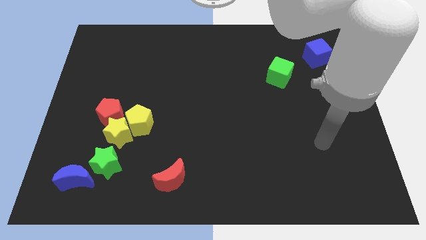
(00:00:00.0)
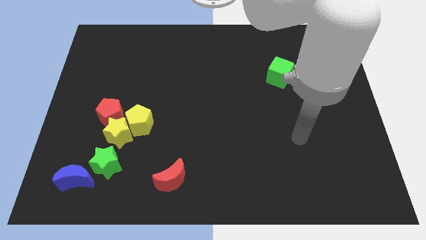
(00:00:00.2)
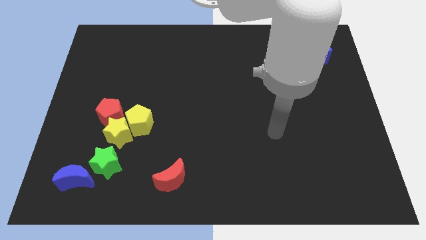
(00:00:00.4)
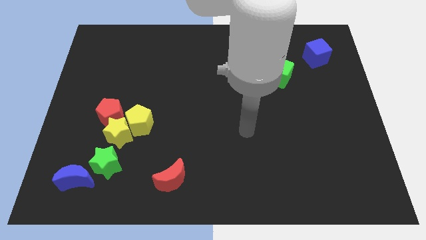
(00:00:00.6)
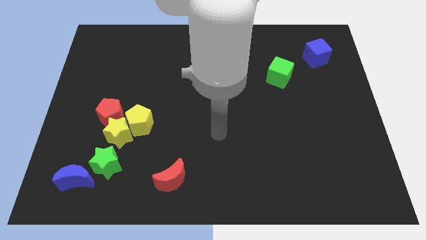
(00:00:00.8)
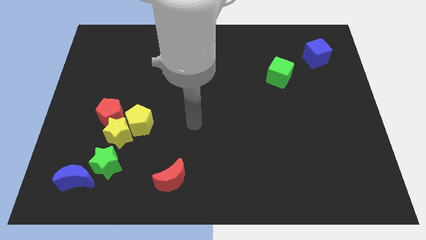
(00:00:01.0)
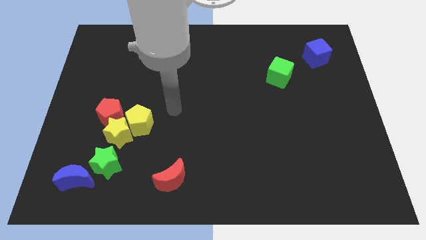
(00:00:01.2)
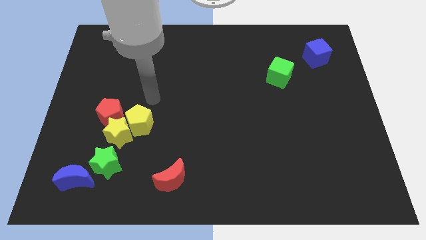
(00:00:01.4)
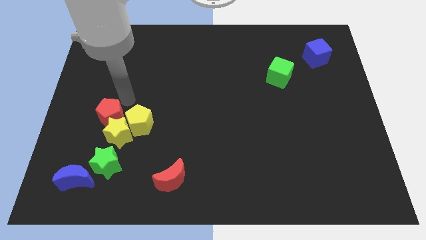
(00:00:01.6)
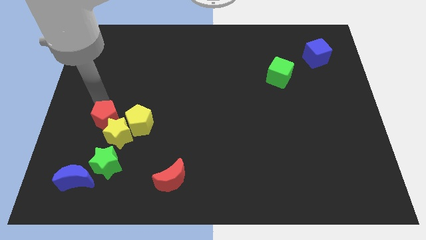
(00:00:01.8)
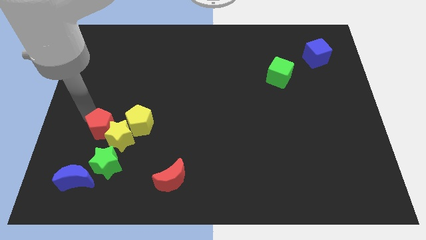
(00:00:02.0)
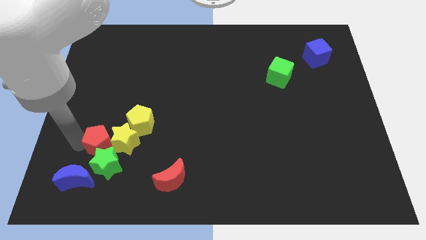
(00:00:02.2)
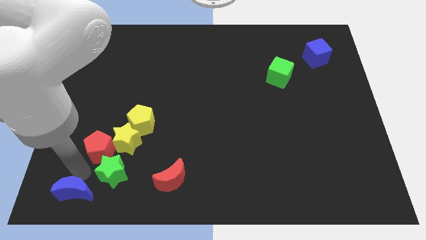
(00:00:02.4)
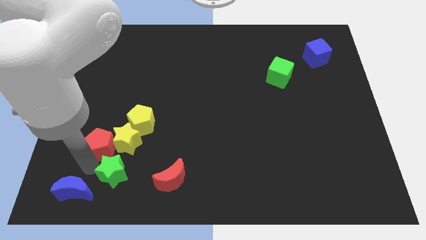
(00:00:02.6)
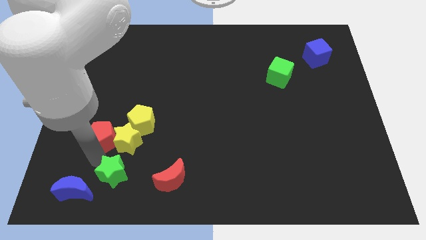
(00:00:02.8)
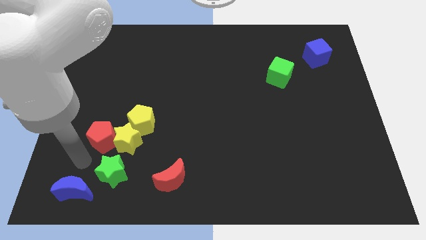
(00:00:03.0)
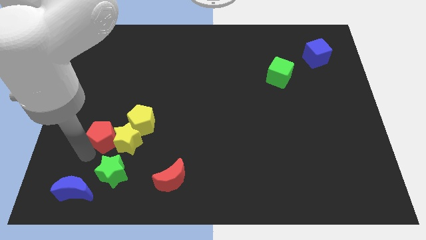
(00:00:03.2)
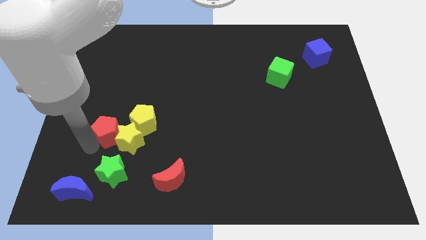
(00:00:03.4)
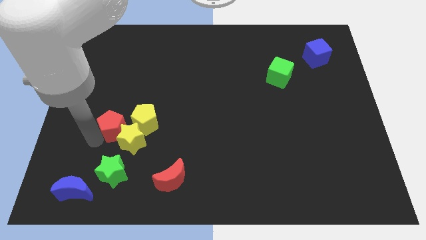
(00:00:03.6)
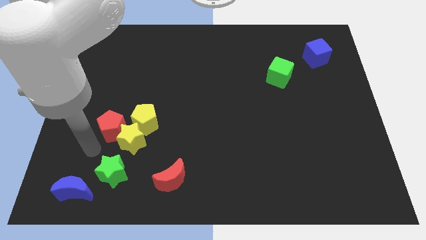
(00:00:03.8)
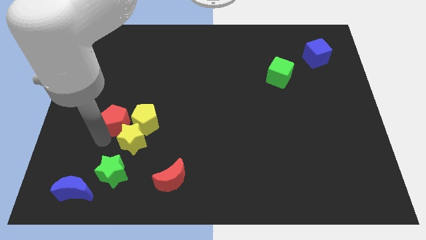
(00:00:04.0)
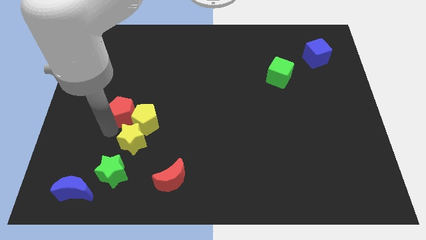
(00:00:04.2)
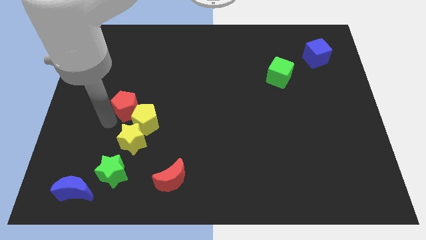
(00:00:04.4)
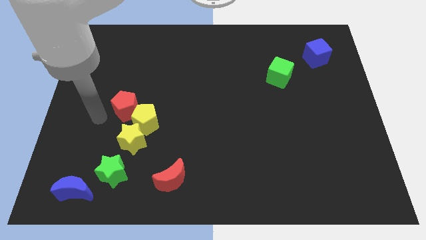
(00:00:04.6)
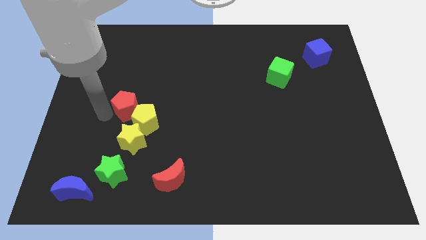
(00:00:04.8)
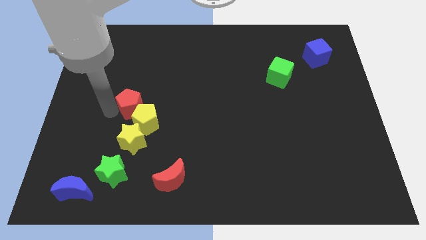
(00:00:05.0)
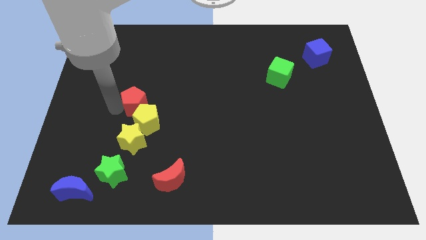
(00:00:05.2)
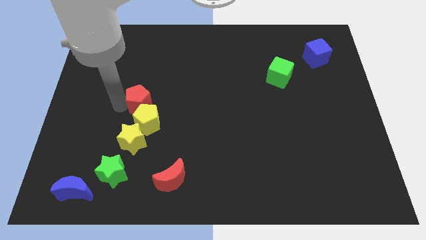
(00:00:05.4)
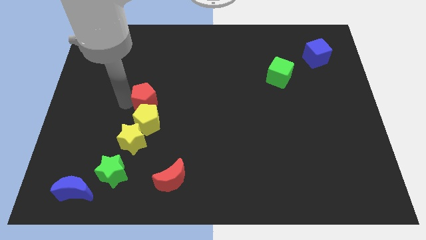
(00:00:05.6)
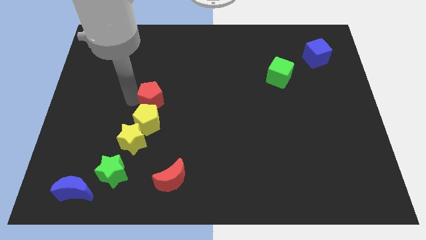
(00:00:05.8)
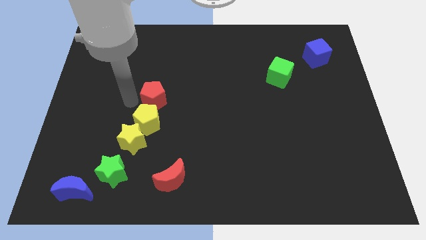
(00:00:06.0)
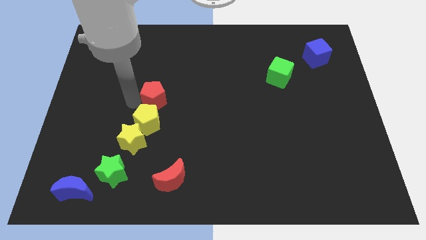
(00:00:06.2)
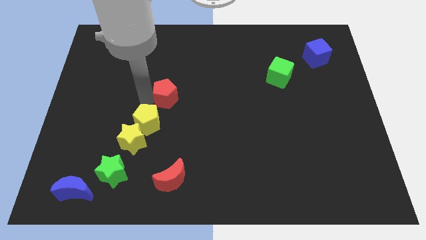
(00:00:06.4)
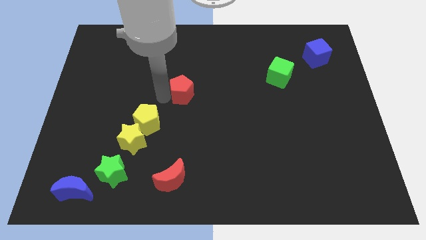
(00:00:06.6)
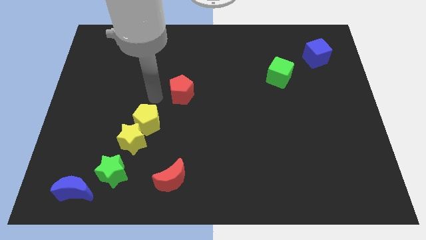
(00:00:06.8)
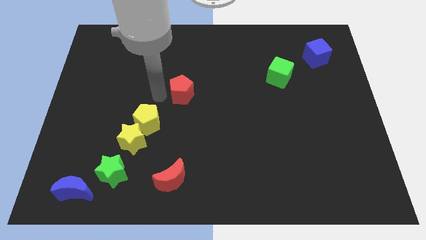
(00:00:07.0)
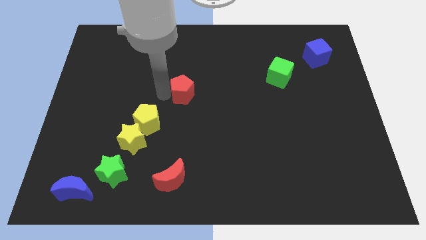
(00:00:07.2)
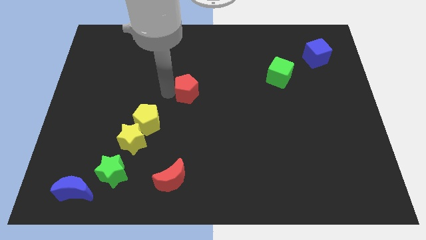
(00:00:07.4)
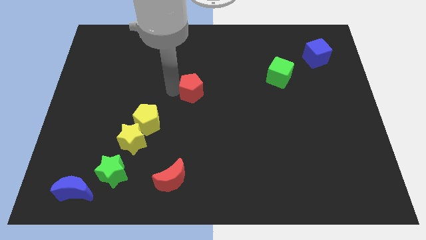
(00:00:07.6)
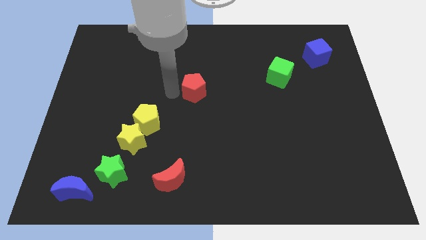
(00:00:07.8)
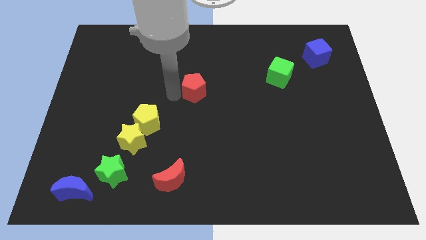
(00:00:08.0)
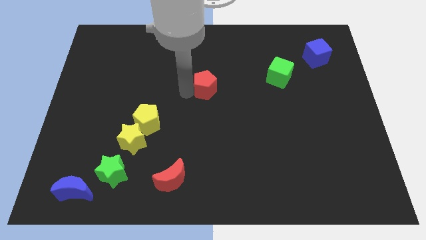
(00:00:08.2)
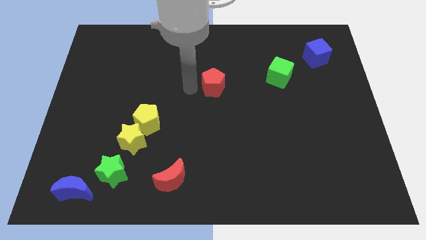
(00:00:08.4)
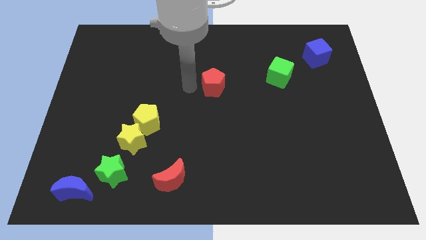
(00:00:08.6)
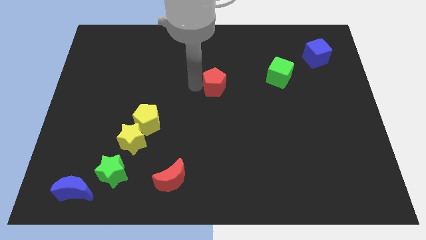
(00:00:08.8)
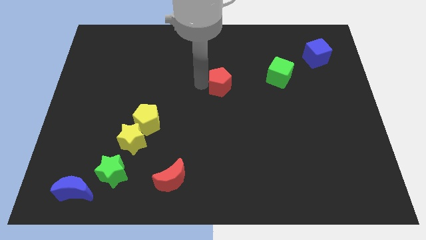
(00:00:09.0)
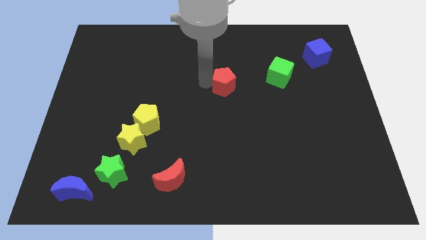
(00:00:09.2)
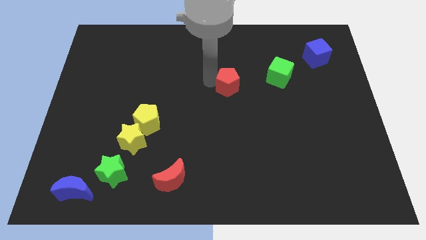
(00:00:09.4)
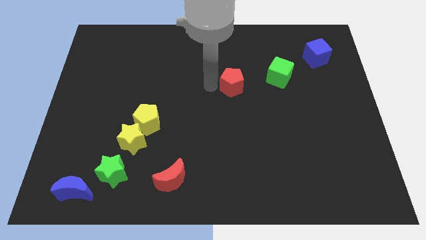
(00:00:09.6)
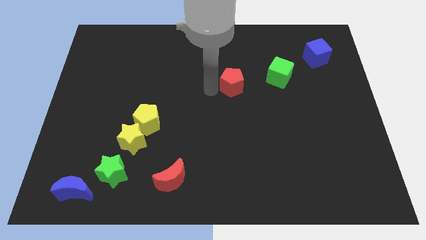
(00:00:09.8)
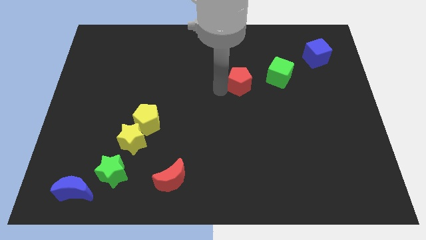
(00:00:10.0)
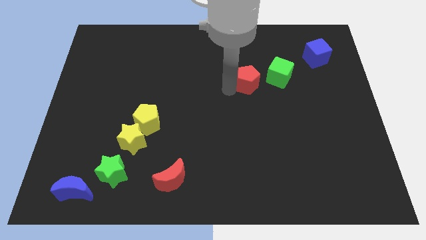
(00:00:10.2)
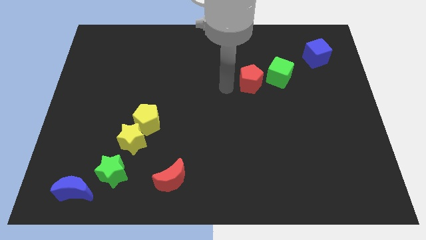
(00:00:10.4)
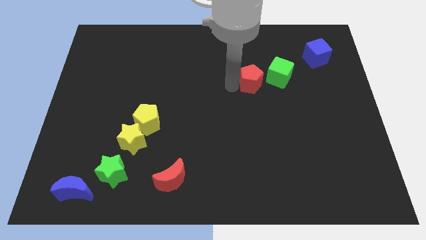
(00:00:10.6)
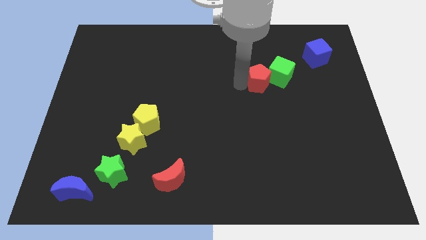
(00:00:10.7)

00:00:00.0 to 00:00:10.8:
put the red pentagon next to the green cube

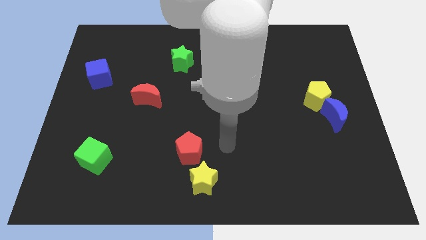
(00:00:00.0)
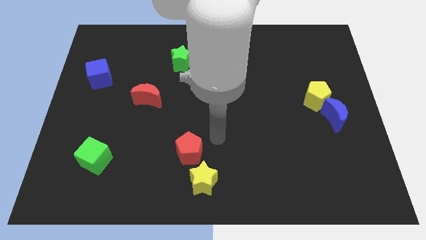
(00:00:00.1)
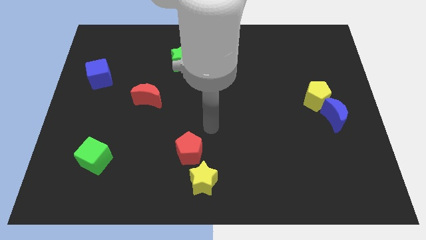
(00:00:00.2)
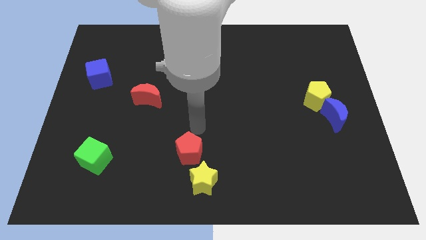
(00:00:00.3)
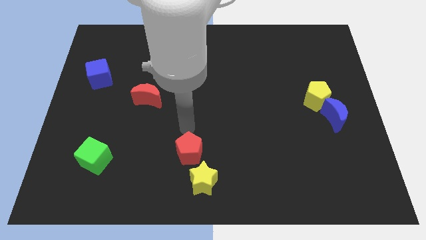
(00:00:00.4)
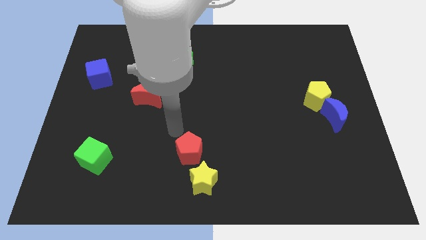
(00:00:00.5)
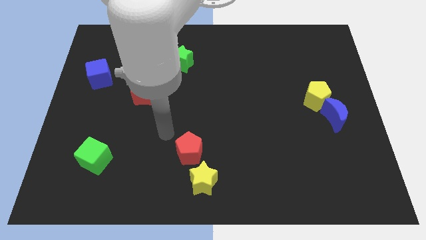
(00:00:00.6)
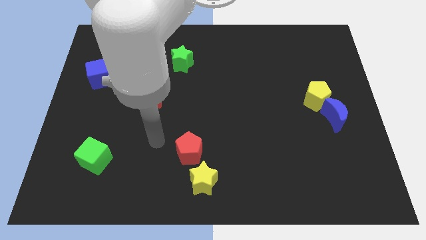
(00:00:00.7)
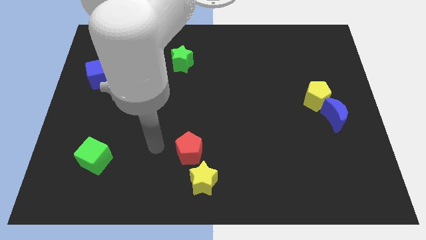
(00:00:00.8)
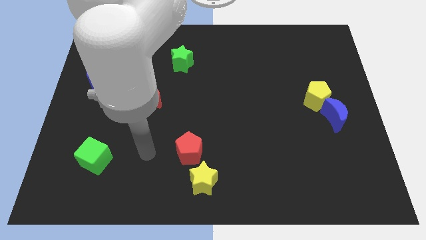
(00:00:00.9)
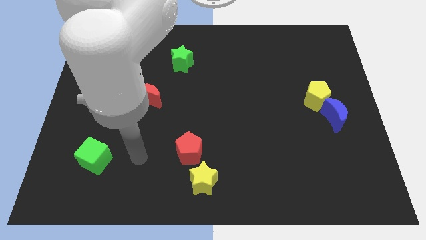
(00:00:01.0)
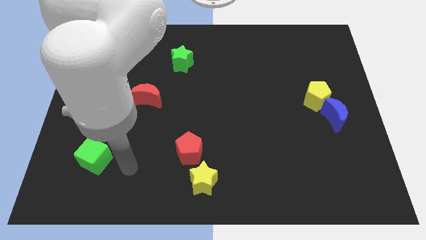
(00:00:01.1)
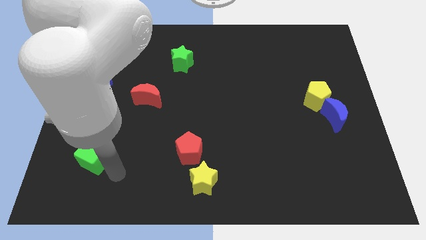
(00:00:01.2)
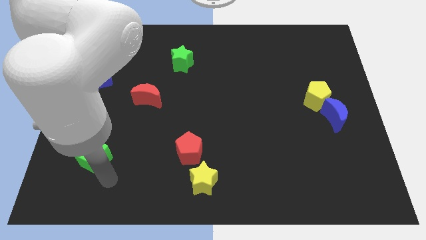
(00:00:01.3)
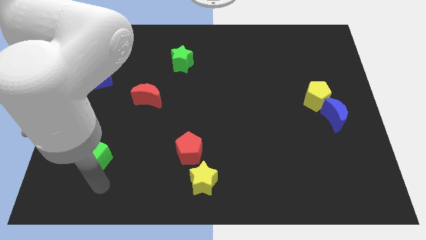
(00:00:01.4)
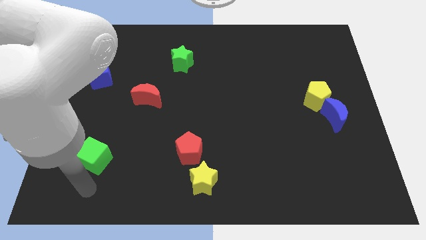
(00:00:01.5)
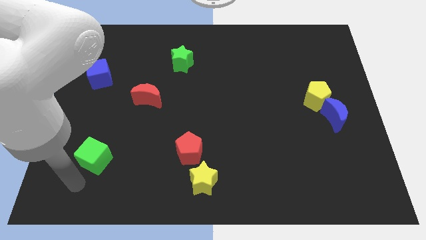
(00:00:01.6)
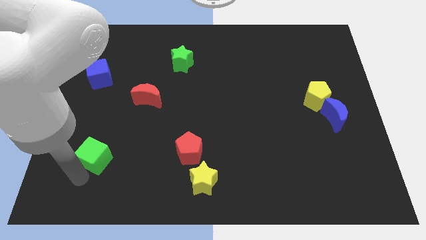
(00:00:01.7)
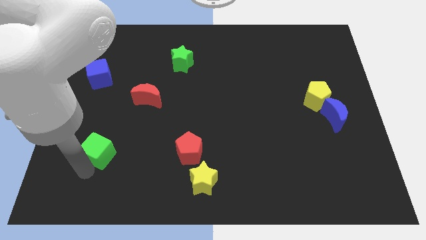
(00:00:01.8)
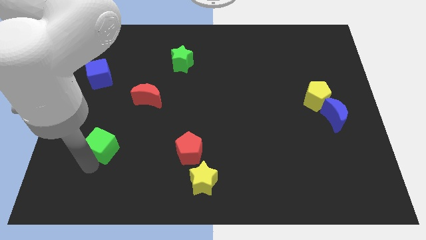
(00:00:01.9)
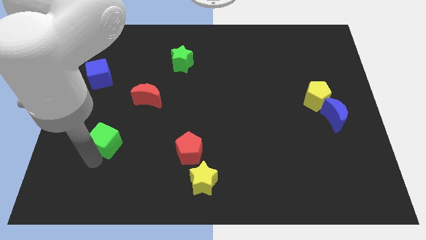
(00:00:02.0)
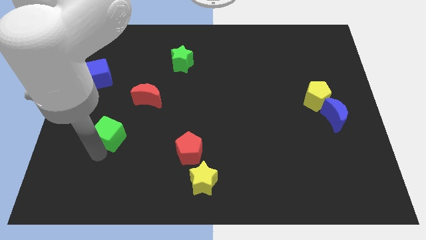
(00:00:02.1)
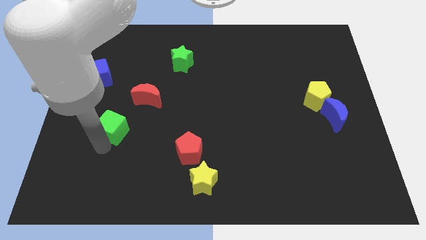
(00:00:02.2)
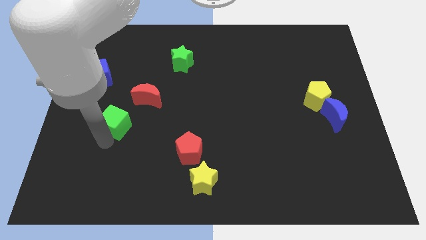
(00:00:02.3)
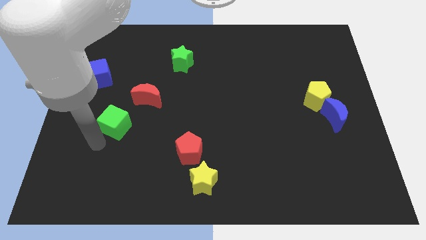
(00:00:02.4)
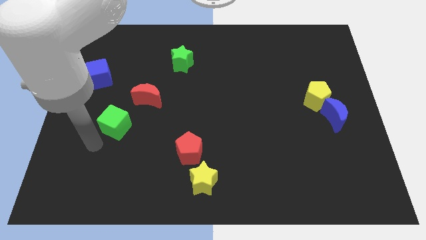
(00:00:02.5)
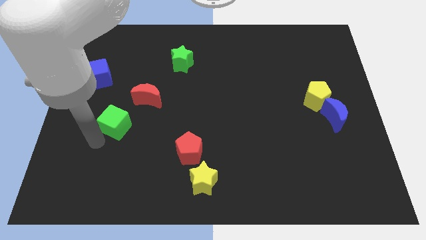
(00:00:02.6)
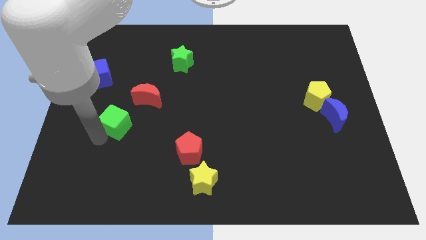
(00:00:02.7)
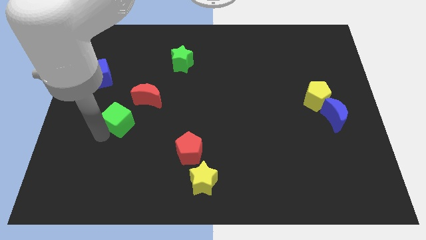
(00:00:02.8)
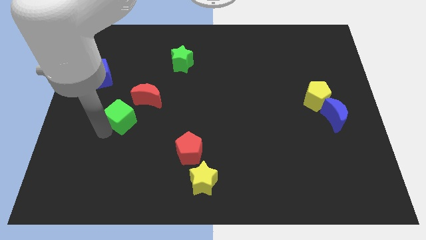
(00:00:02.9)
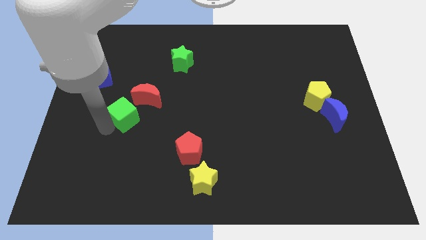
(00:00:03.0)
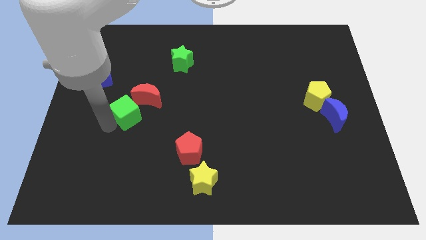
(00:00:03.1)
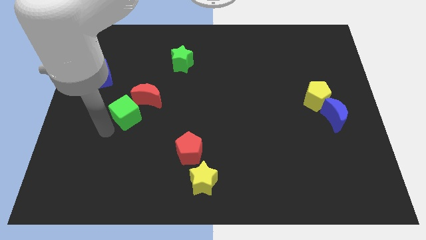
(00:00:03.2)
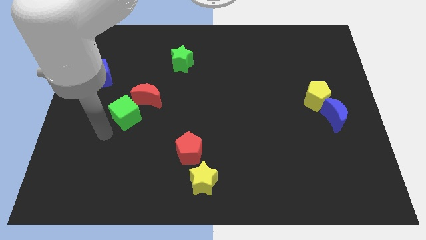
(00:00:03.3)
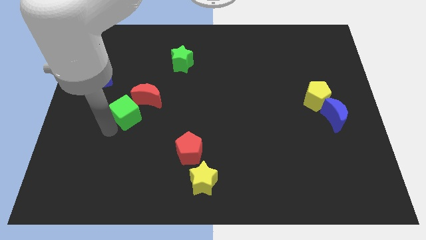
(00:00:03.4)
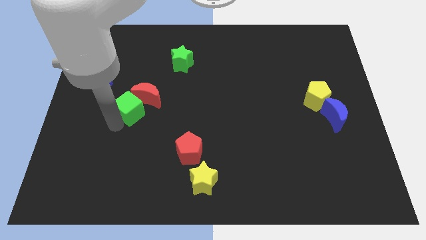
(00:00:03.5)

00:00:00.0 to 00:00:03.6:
put the green cube towards the red moon
